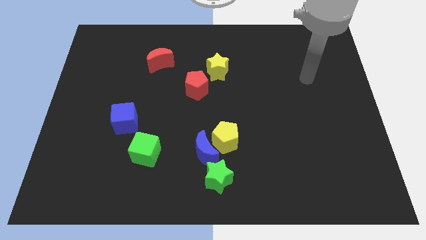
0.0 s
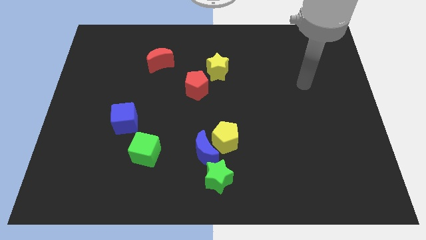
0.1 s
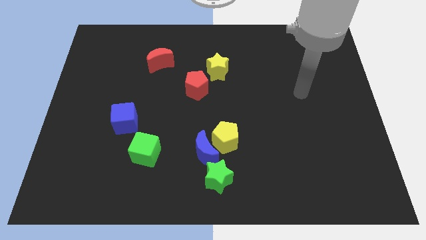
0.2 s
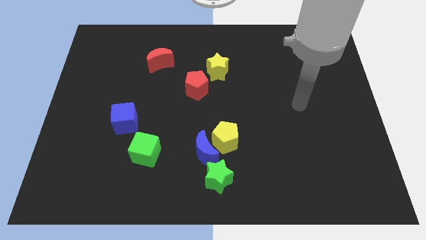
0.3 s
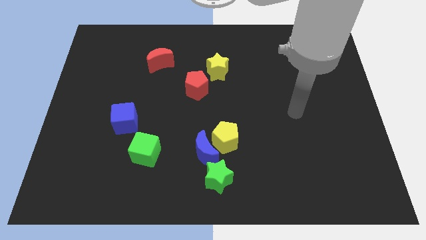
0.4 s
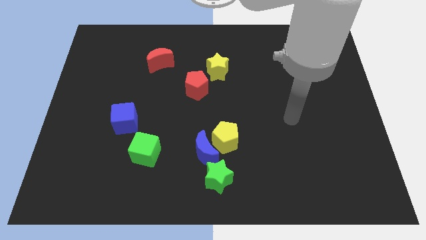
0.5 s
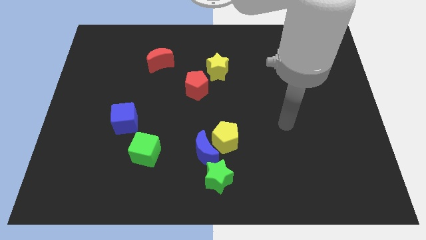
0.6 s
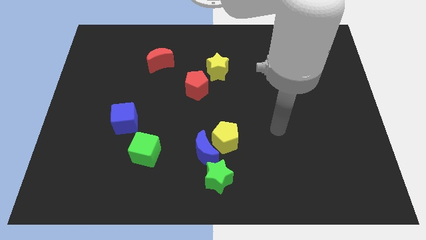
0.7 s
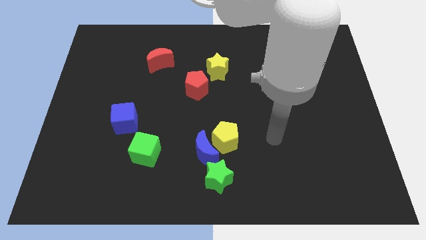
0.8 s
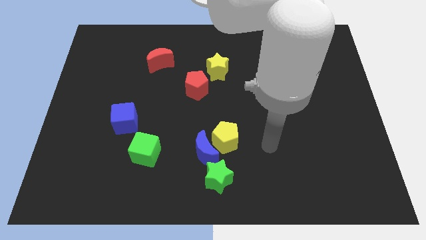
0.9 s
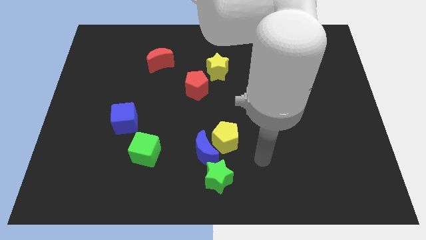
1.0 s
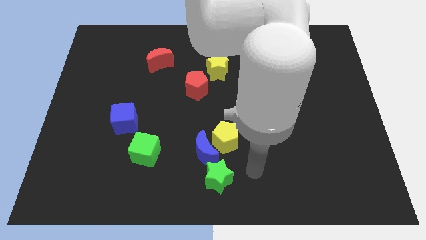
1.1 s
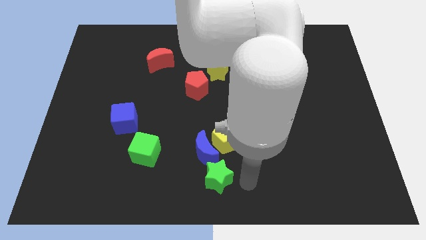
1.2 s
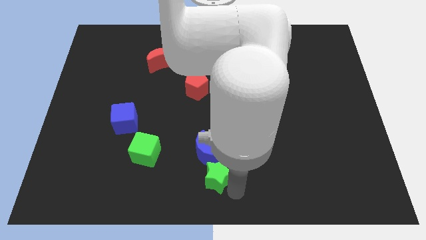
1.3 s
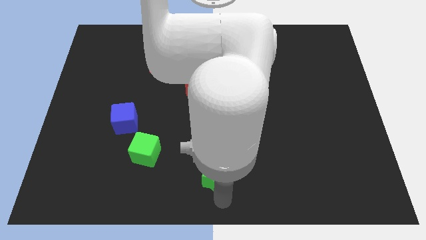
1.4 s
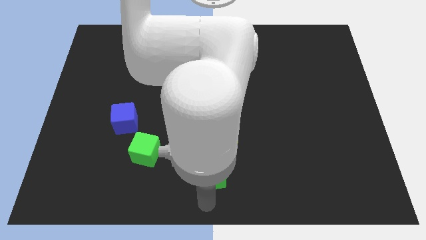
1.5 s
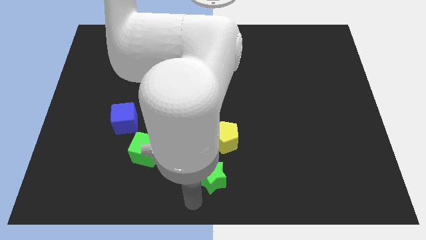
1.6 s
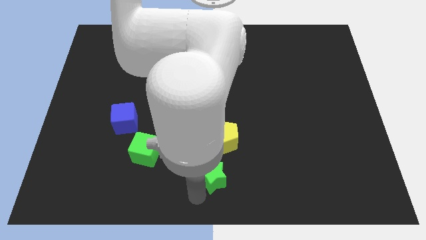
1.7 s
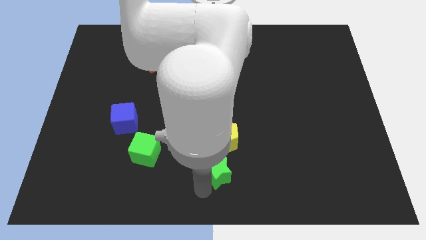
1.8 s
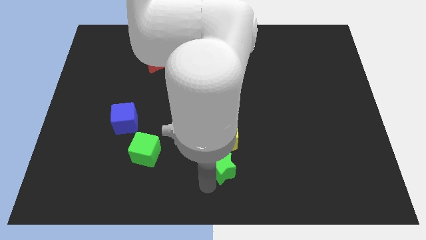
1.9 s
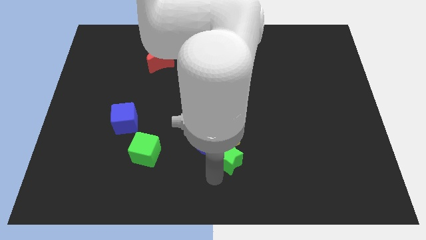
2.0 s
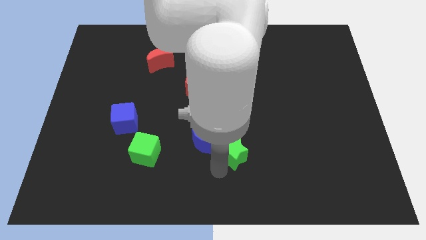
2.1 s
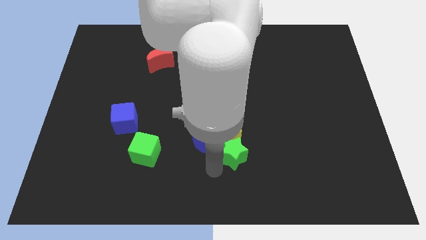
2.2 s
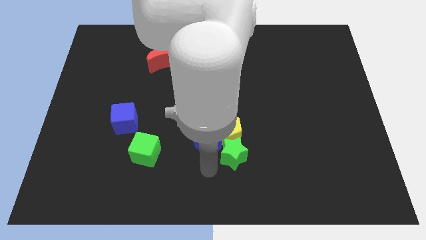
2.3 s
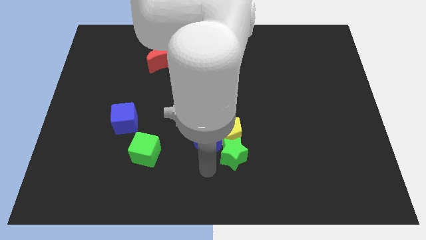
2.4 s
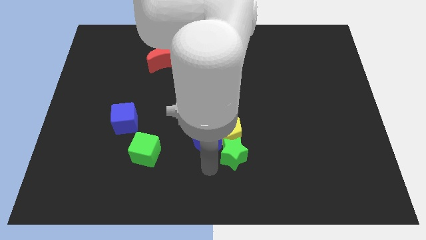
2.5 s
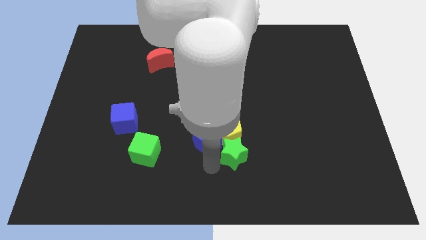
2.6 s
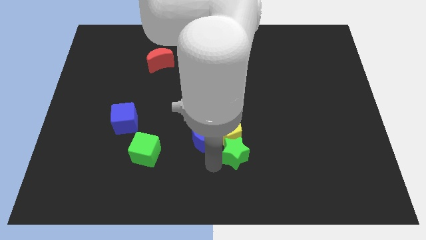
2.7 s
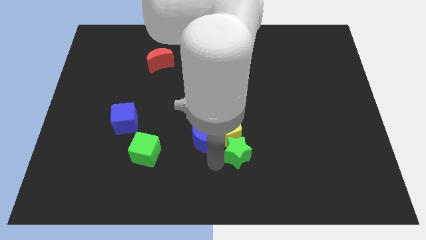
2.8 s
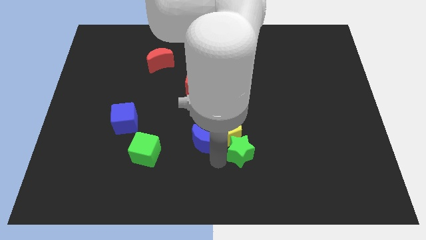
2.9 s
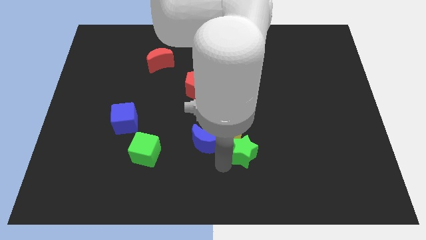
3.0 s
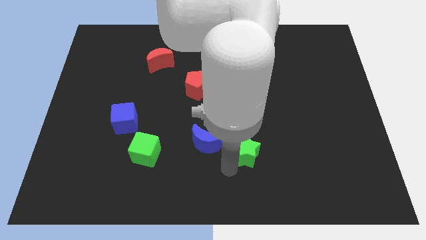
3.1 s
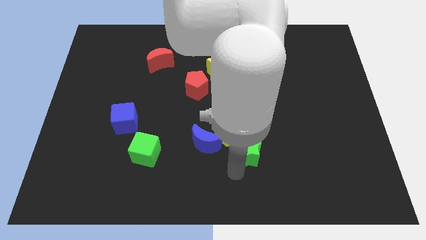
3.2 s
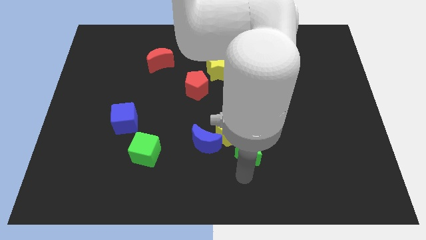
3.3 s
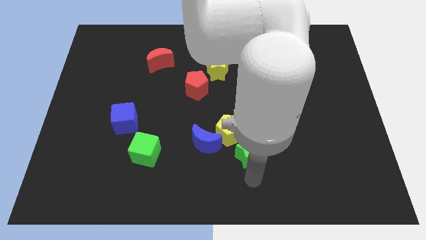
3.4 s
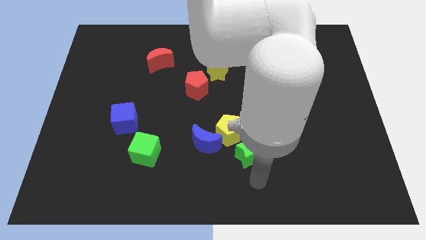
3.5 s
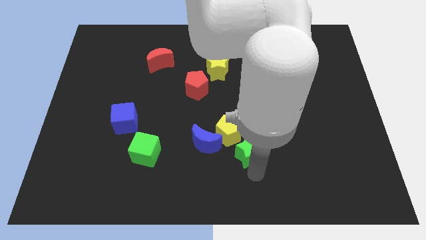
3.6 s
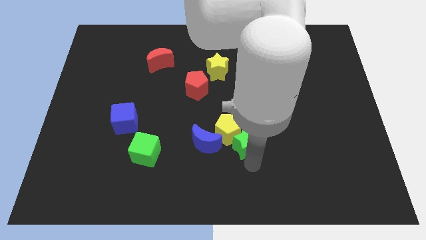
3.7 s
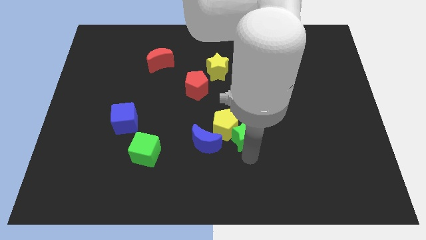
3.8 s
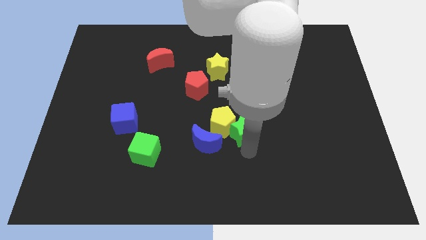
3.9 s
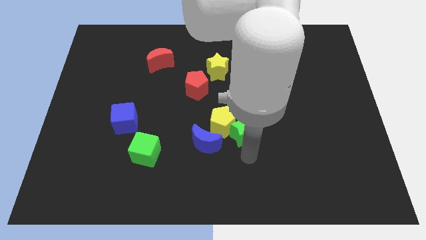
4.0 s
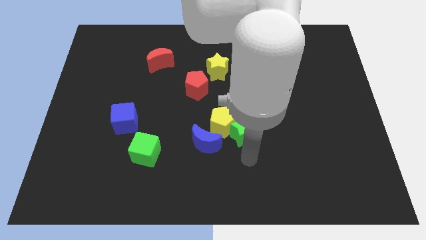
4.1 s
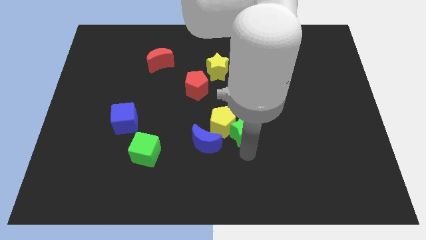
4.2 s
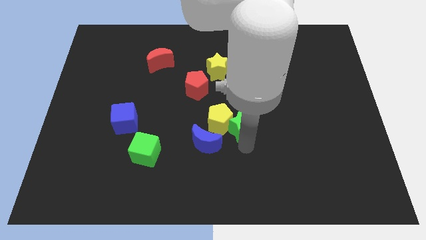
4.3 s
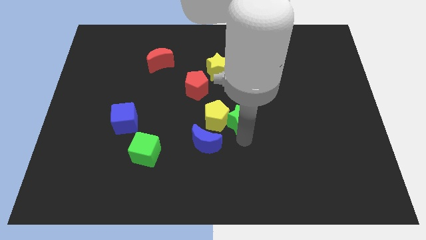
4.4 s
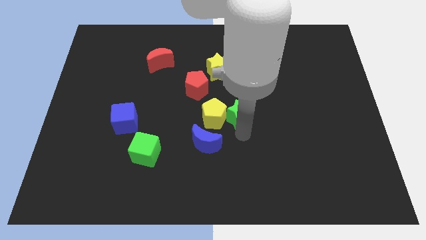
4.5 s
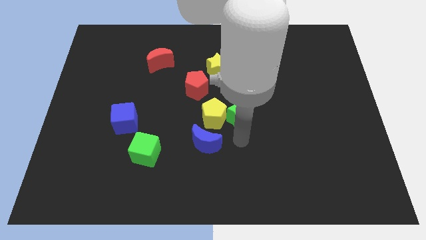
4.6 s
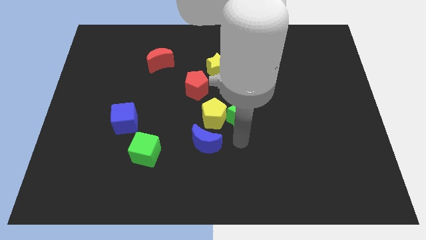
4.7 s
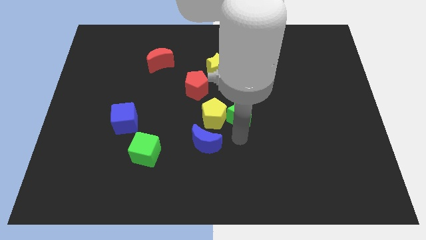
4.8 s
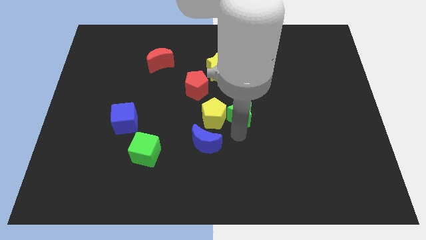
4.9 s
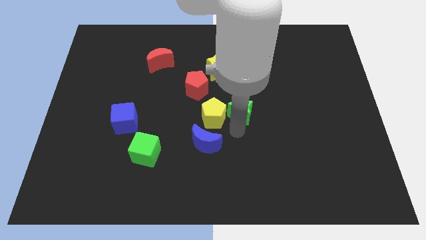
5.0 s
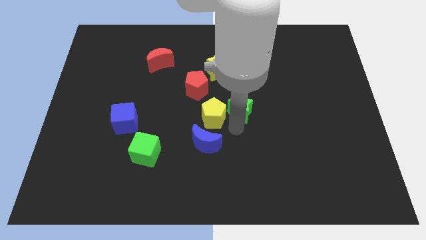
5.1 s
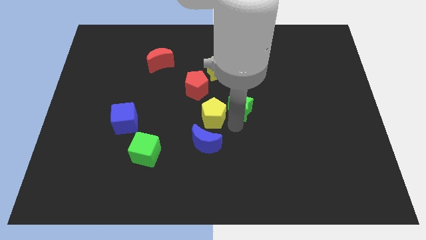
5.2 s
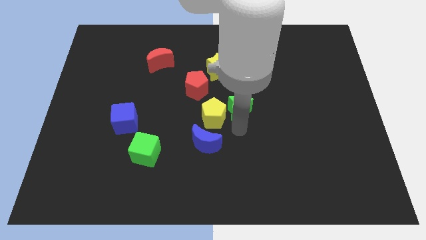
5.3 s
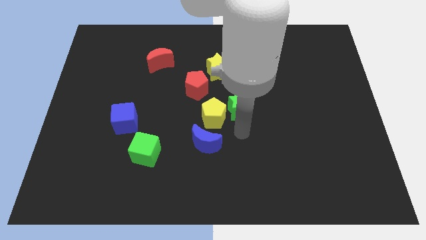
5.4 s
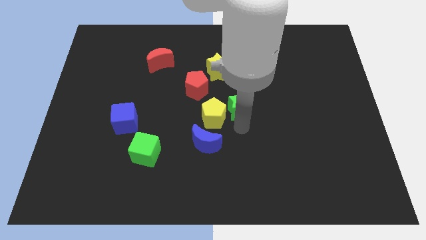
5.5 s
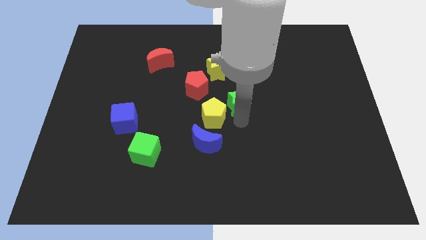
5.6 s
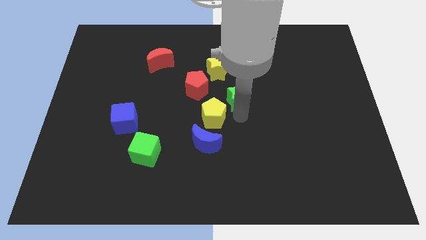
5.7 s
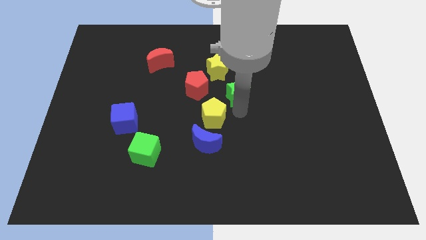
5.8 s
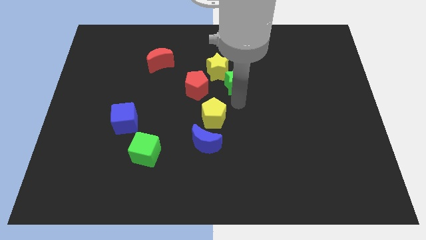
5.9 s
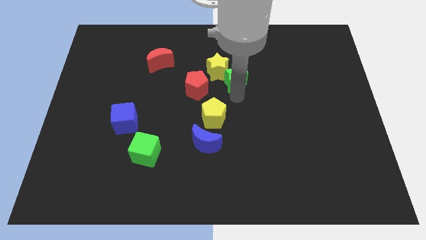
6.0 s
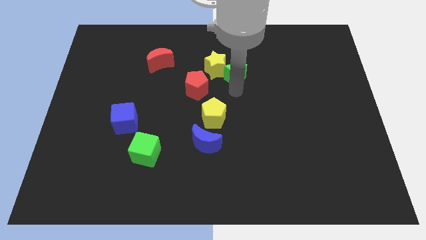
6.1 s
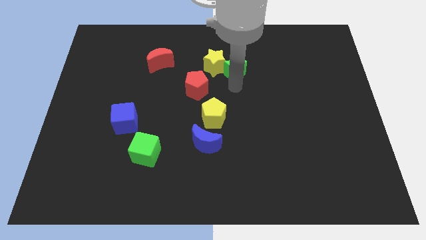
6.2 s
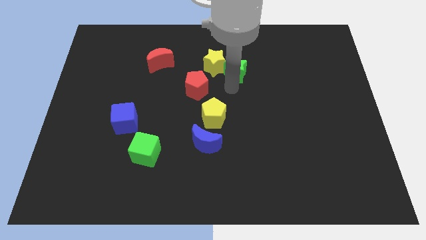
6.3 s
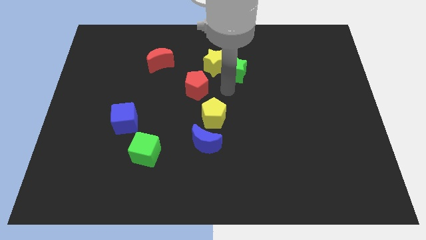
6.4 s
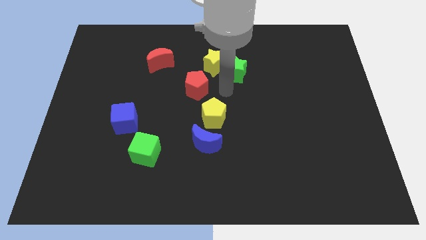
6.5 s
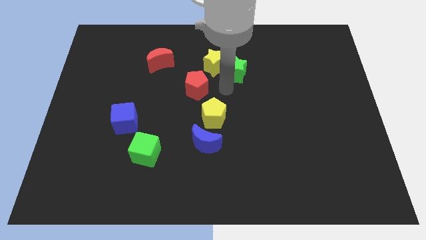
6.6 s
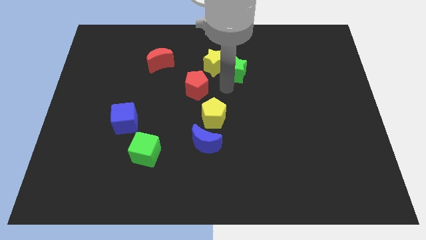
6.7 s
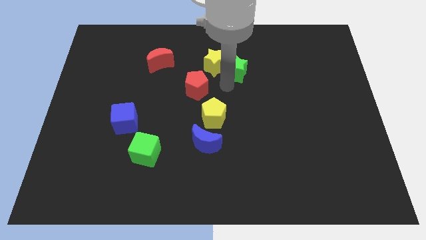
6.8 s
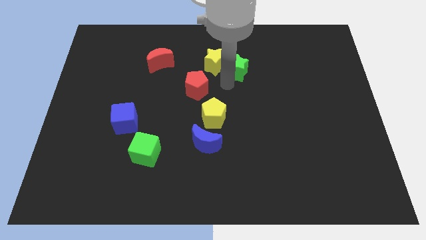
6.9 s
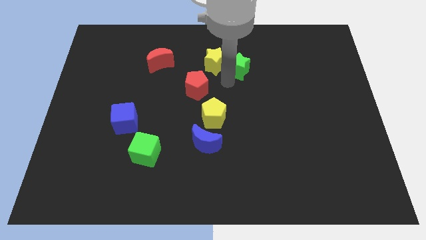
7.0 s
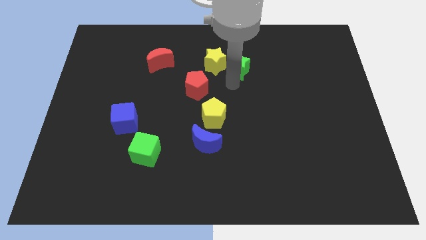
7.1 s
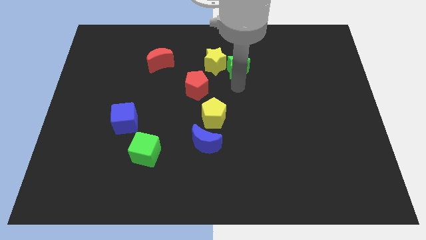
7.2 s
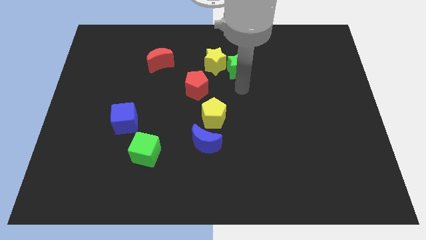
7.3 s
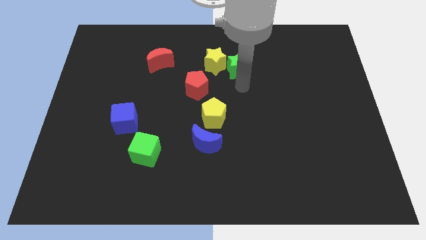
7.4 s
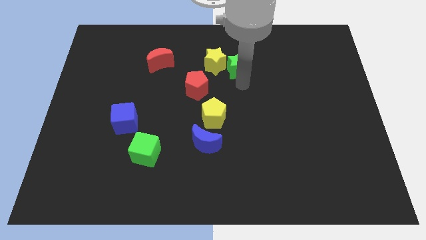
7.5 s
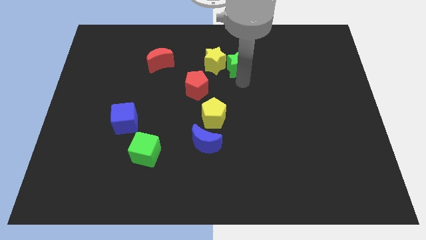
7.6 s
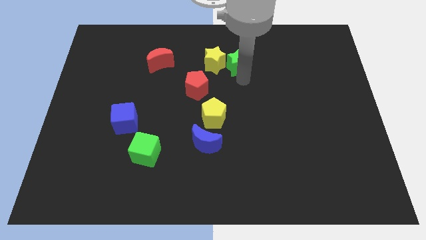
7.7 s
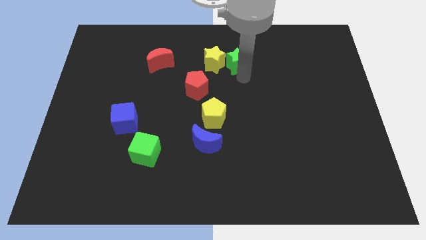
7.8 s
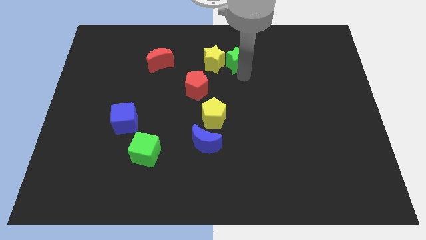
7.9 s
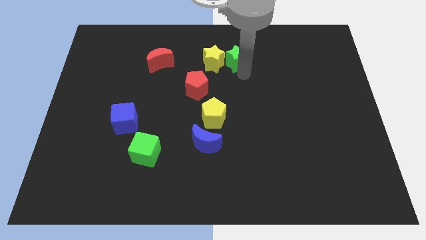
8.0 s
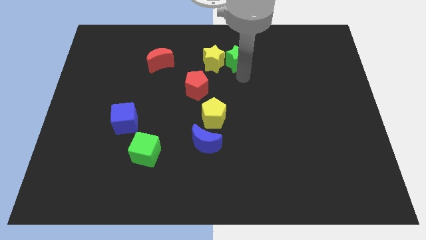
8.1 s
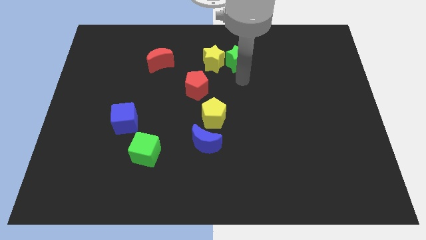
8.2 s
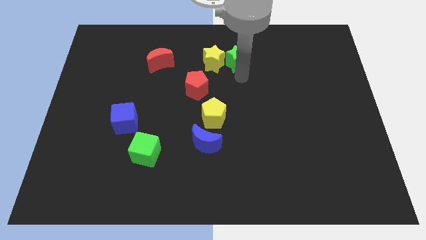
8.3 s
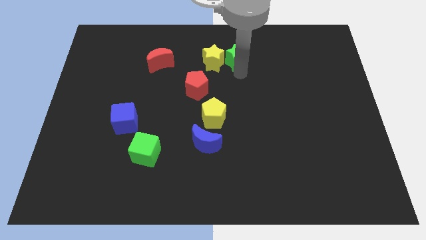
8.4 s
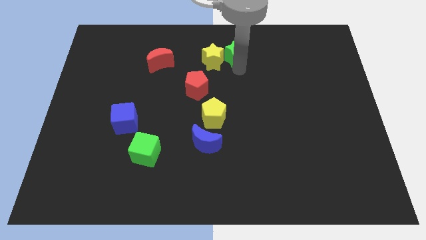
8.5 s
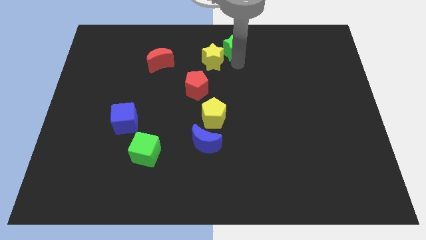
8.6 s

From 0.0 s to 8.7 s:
push the green star to the top
